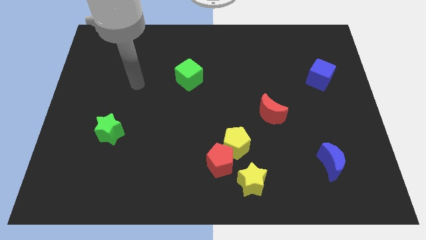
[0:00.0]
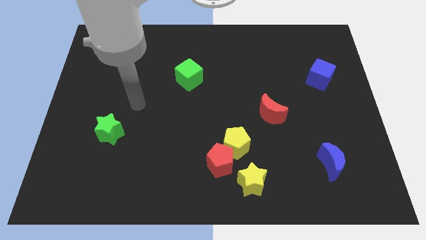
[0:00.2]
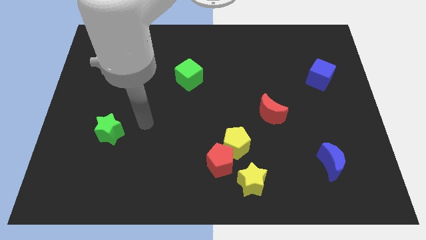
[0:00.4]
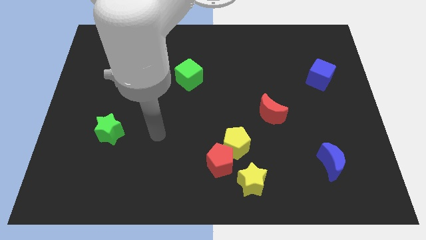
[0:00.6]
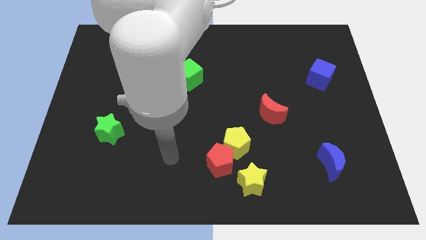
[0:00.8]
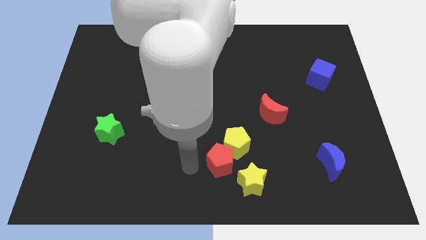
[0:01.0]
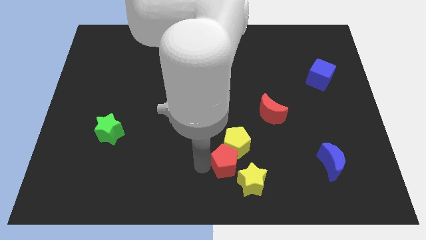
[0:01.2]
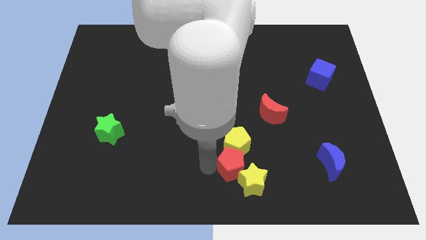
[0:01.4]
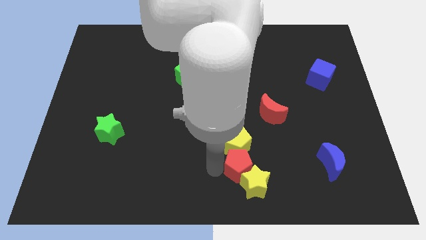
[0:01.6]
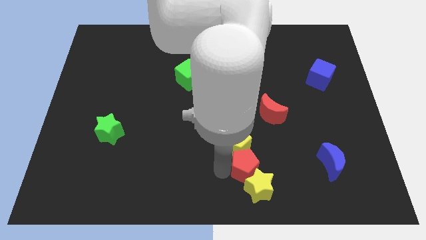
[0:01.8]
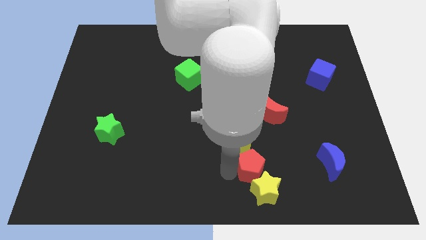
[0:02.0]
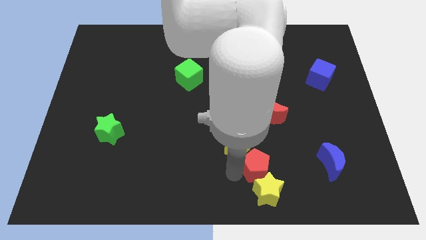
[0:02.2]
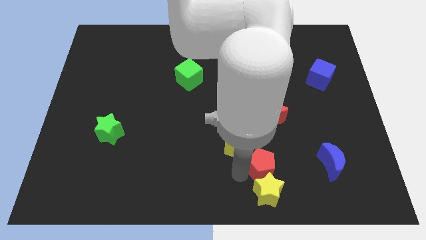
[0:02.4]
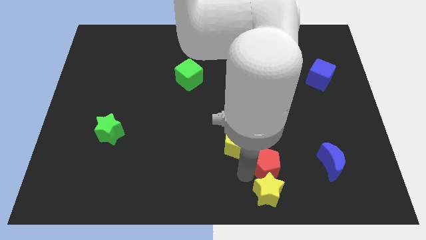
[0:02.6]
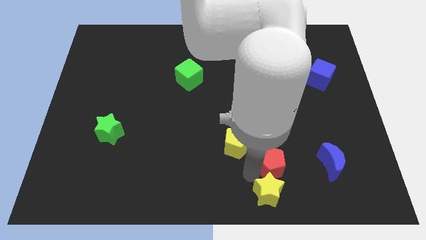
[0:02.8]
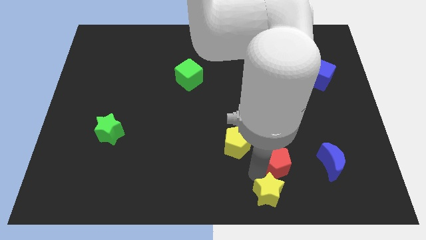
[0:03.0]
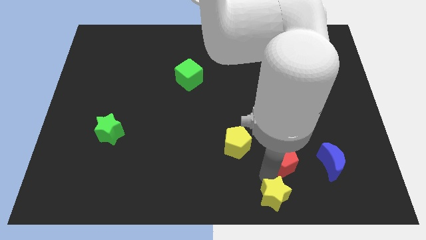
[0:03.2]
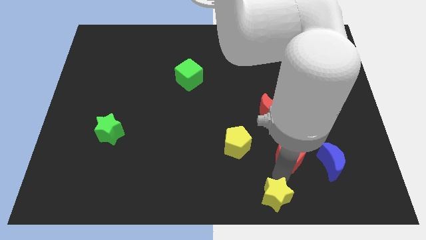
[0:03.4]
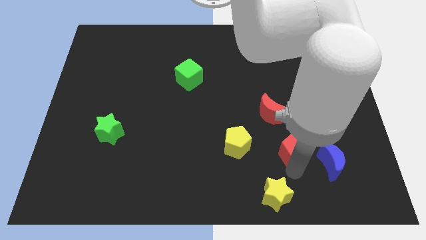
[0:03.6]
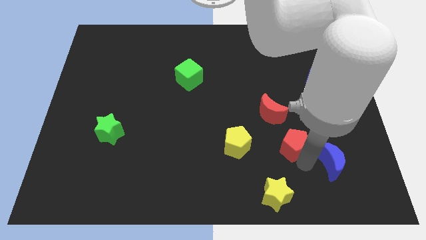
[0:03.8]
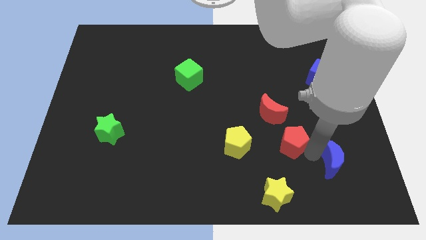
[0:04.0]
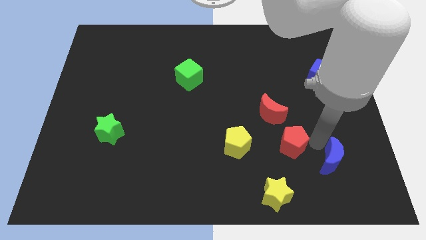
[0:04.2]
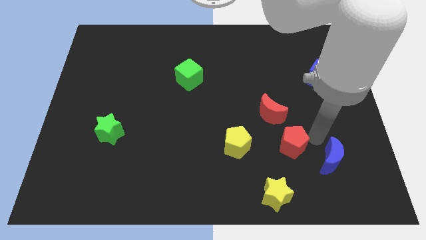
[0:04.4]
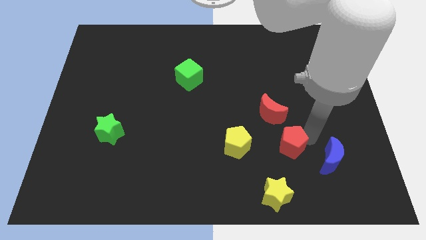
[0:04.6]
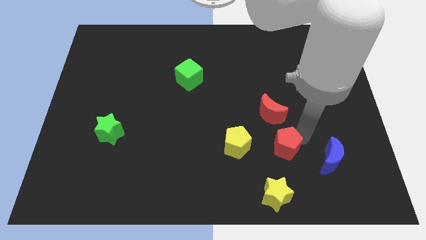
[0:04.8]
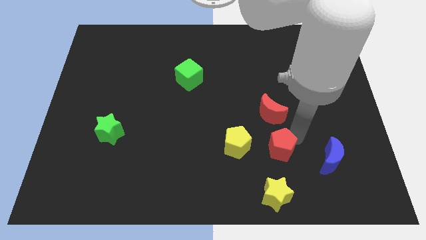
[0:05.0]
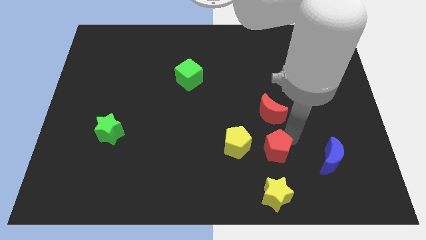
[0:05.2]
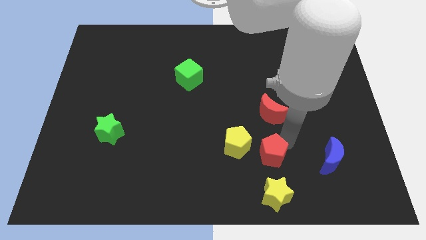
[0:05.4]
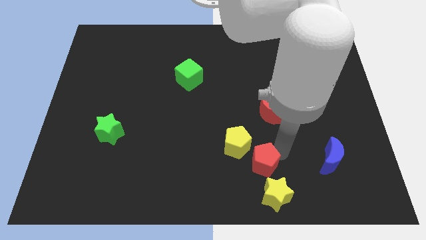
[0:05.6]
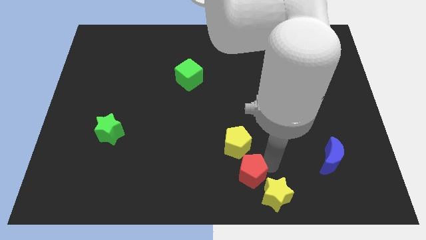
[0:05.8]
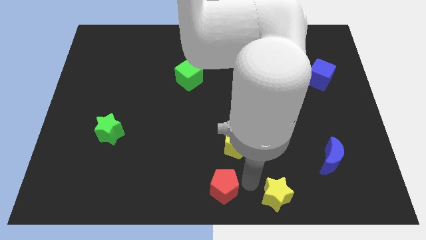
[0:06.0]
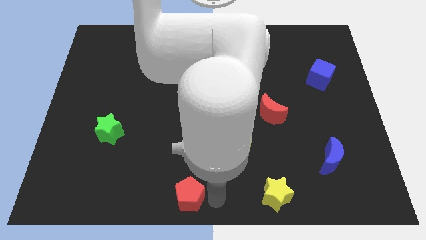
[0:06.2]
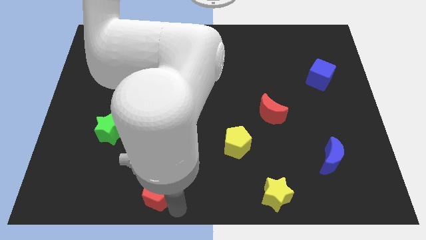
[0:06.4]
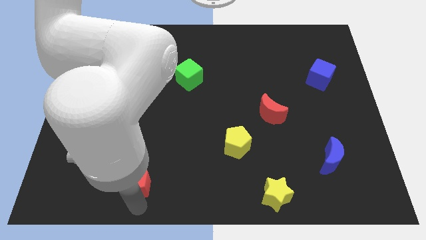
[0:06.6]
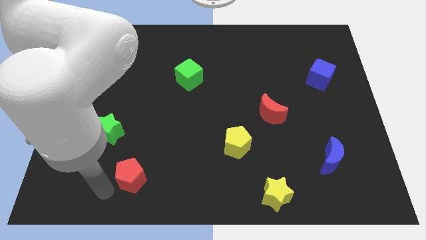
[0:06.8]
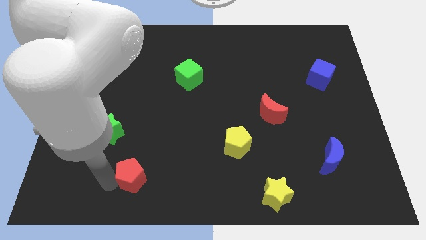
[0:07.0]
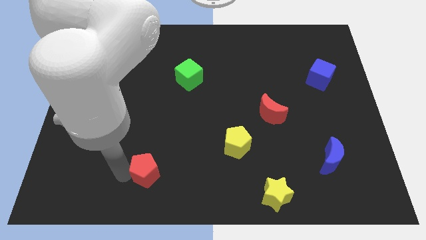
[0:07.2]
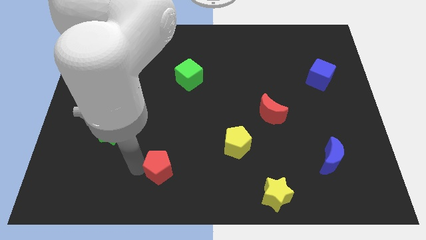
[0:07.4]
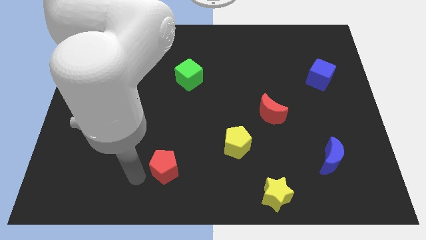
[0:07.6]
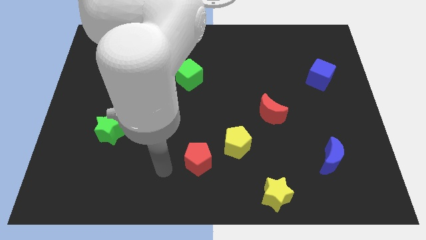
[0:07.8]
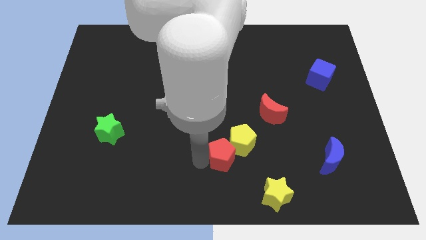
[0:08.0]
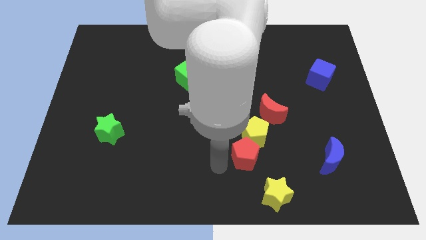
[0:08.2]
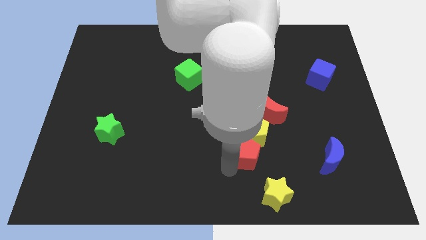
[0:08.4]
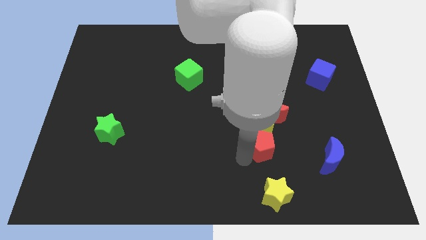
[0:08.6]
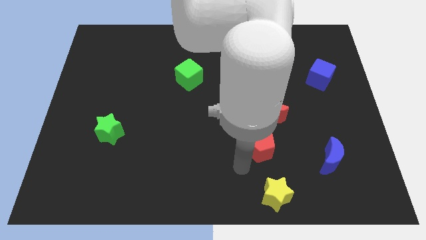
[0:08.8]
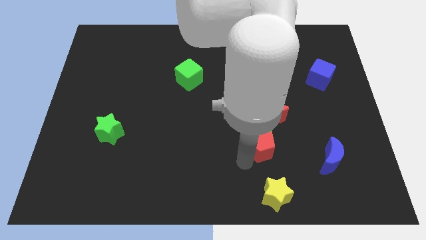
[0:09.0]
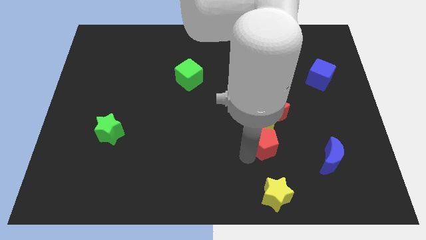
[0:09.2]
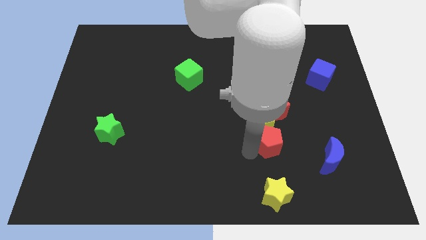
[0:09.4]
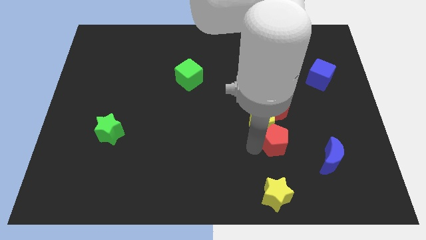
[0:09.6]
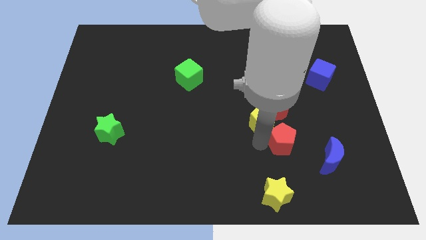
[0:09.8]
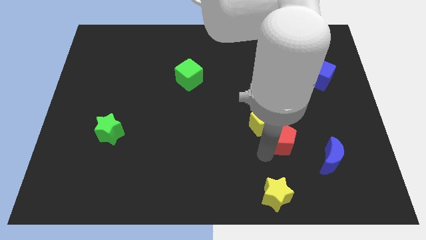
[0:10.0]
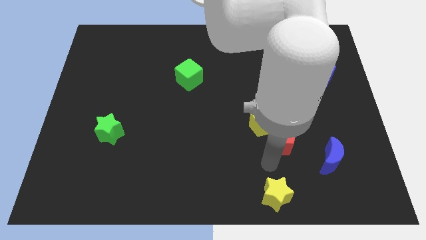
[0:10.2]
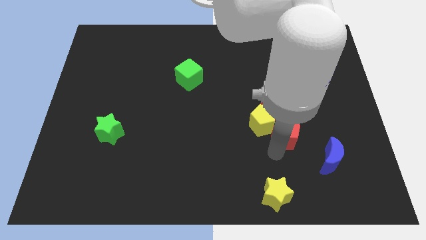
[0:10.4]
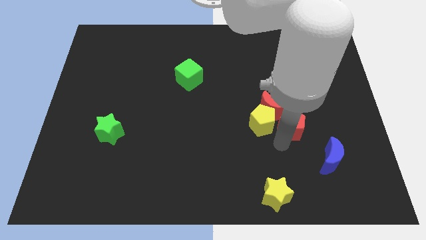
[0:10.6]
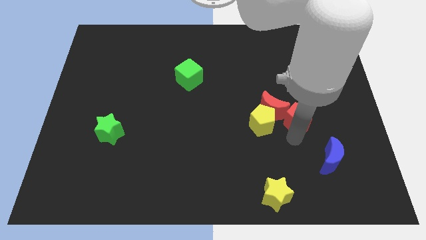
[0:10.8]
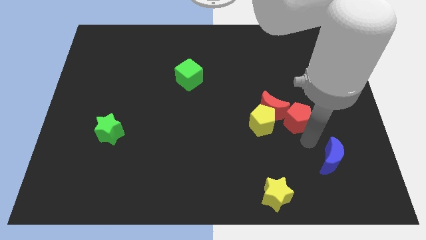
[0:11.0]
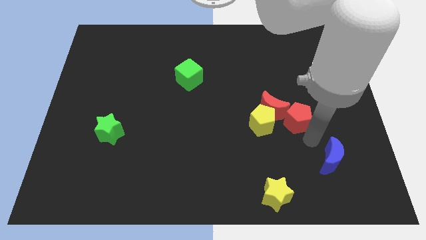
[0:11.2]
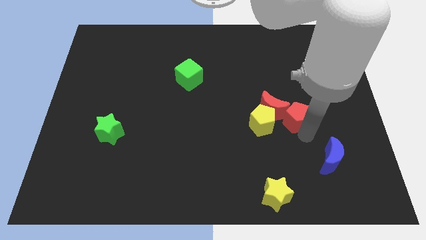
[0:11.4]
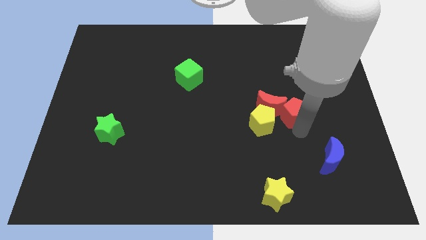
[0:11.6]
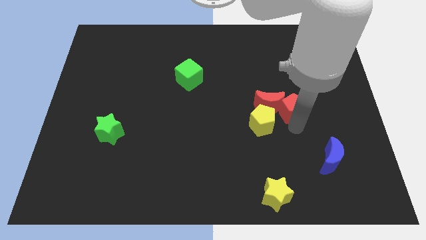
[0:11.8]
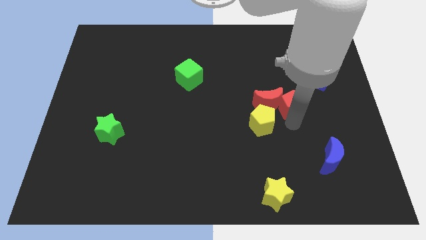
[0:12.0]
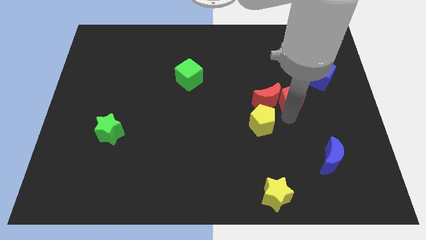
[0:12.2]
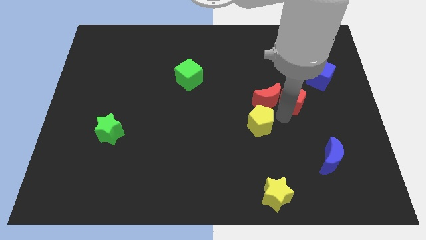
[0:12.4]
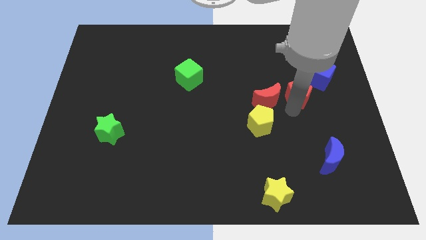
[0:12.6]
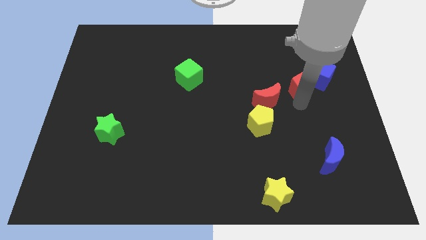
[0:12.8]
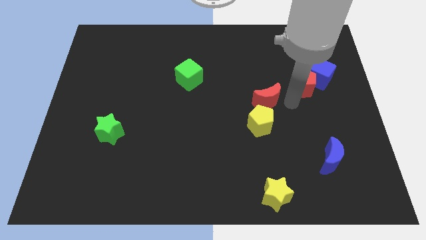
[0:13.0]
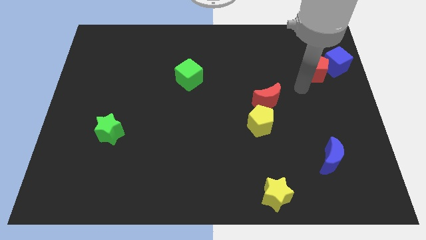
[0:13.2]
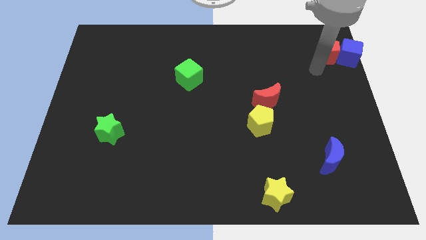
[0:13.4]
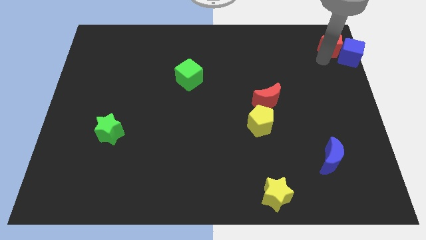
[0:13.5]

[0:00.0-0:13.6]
put the red pentagon to the top right
